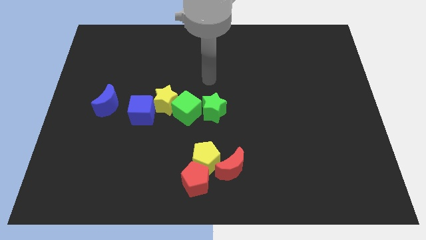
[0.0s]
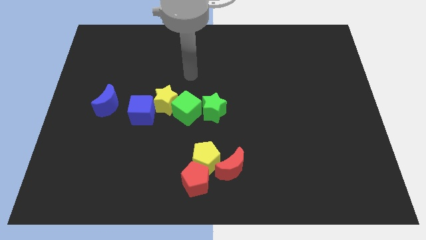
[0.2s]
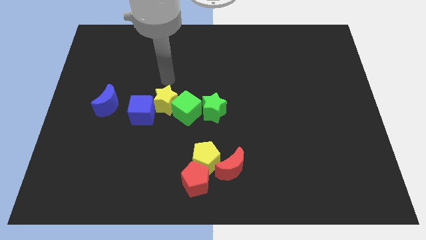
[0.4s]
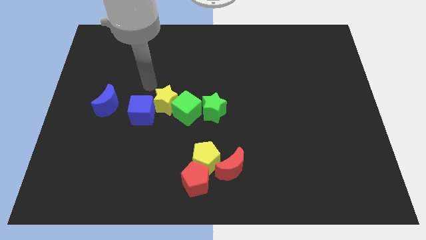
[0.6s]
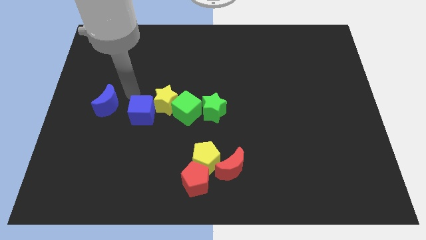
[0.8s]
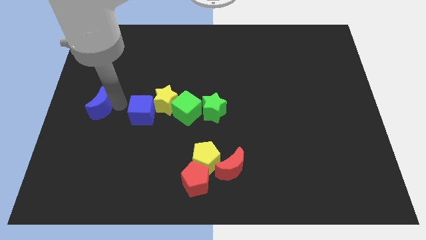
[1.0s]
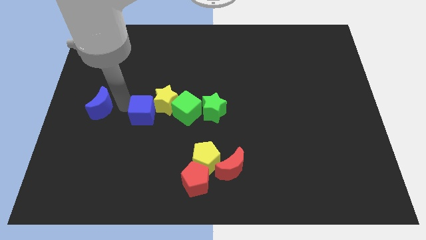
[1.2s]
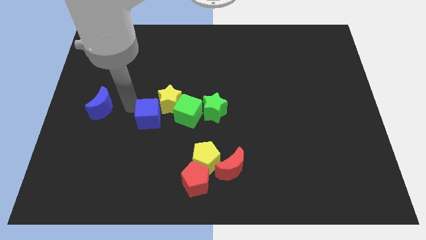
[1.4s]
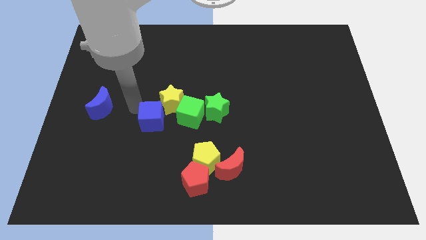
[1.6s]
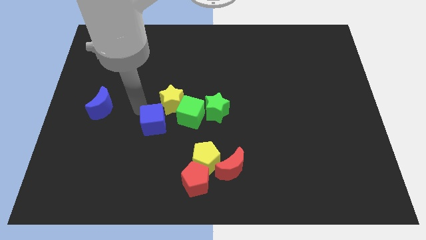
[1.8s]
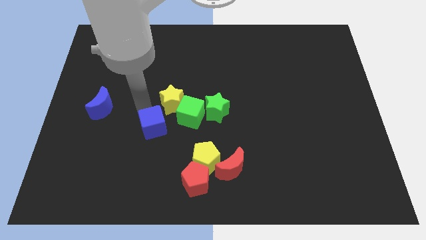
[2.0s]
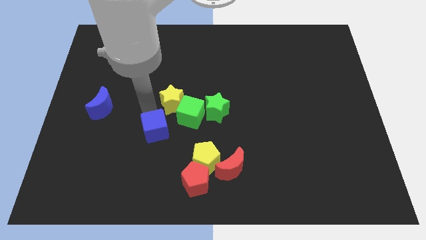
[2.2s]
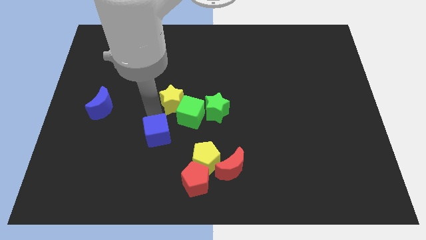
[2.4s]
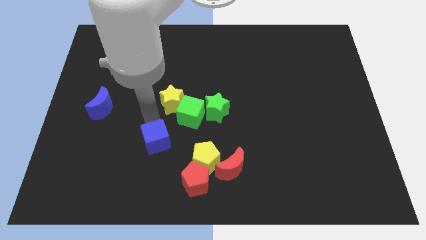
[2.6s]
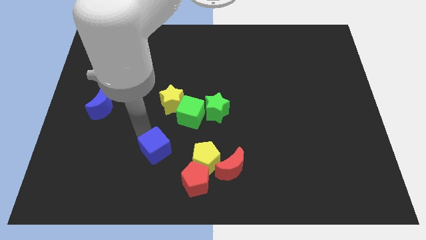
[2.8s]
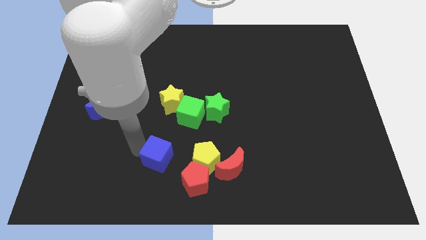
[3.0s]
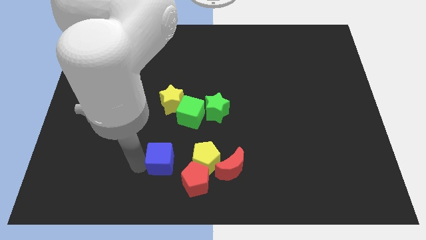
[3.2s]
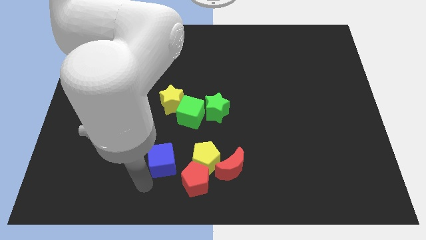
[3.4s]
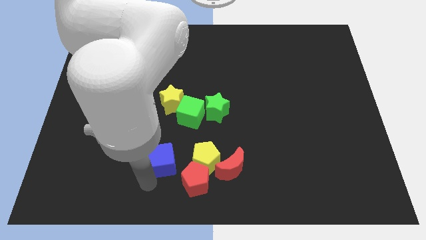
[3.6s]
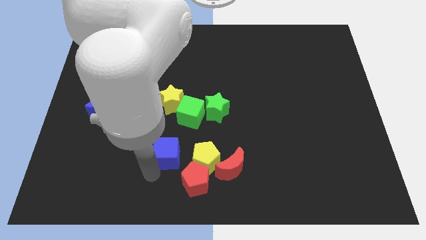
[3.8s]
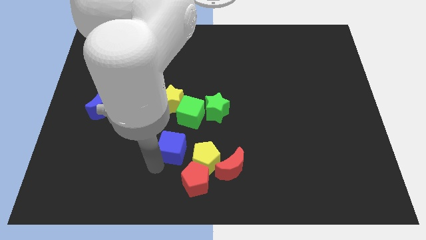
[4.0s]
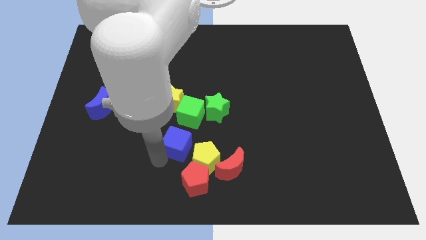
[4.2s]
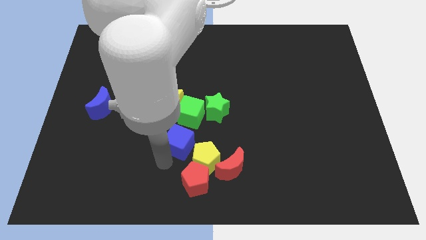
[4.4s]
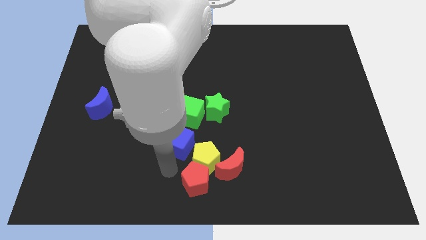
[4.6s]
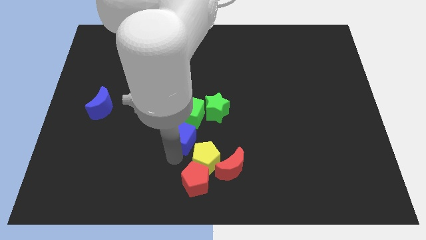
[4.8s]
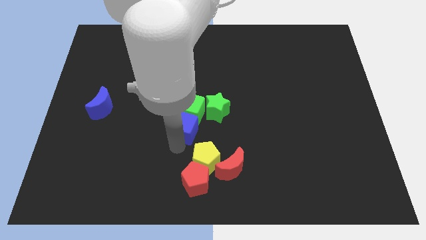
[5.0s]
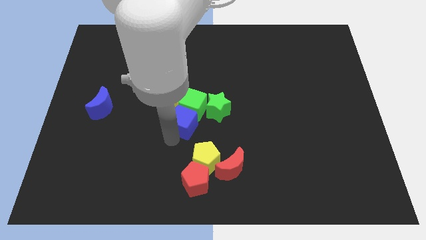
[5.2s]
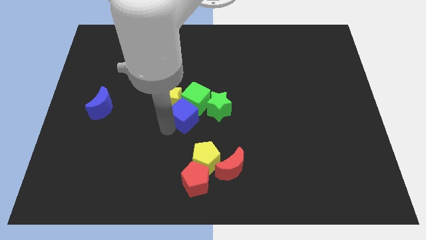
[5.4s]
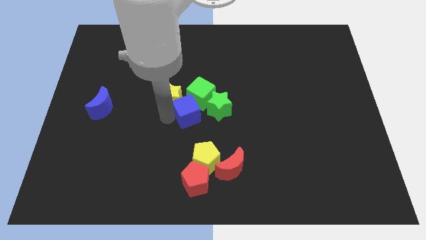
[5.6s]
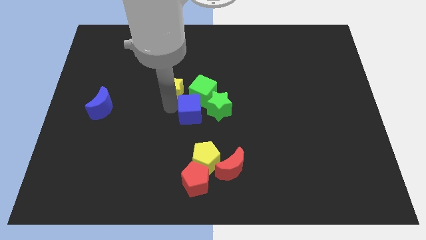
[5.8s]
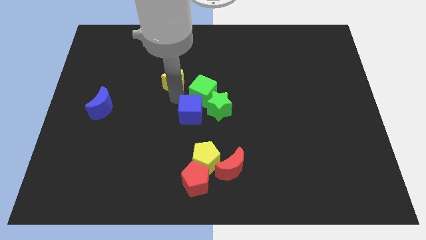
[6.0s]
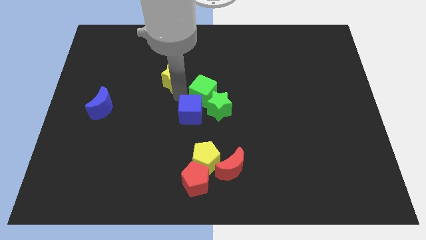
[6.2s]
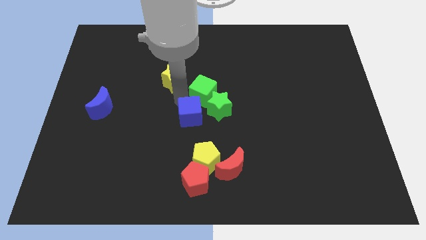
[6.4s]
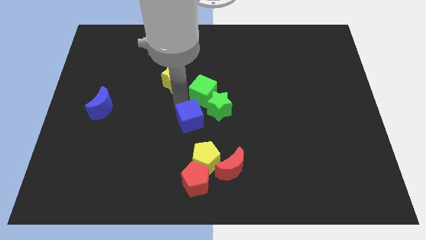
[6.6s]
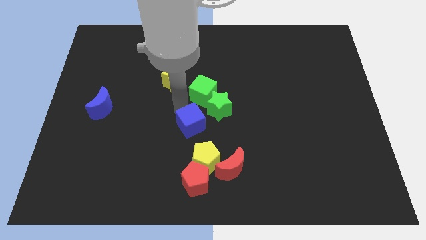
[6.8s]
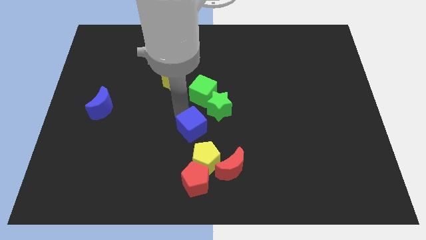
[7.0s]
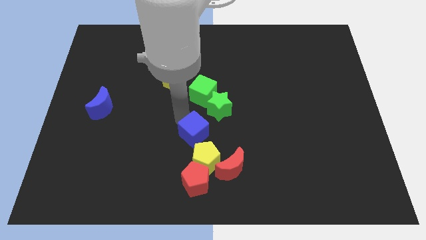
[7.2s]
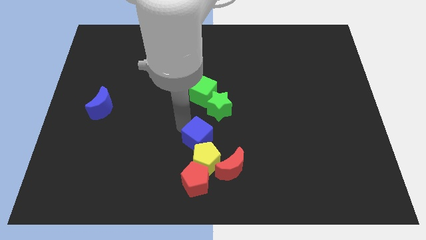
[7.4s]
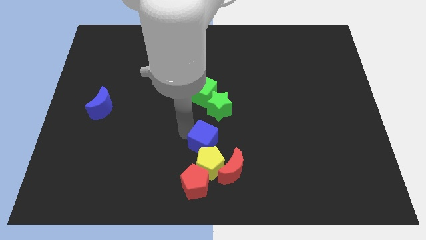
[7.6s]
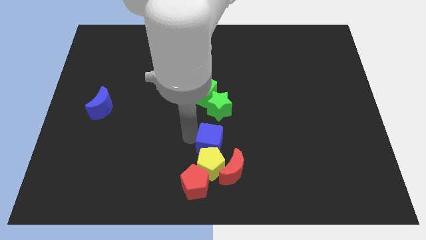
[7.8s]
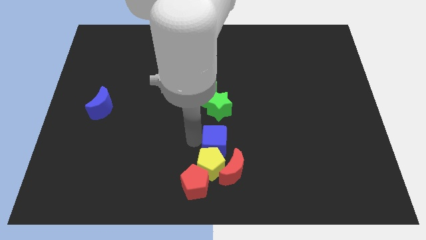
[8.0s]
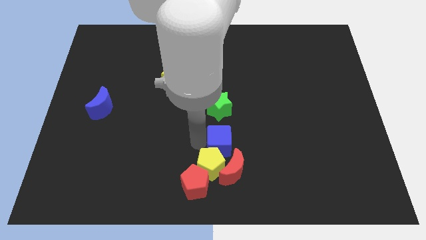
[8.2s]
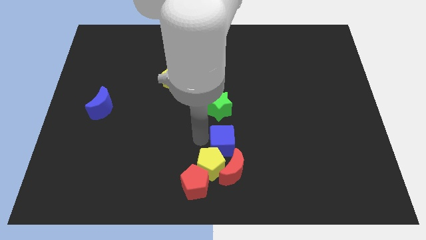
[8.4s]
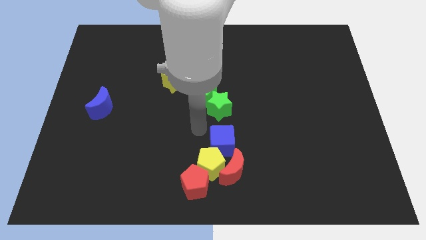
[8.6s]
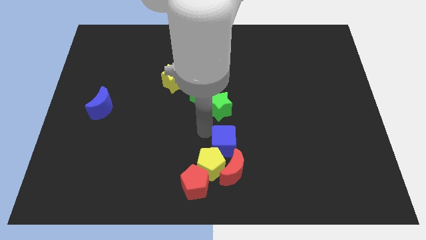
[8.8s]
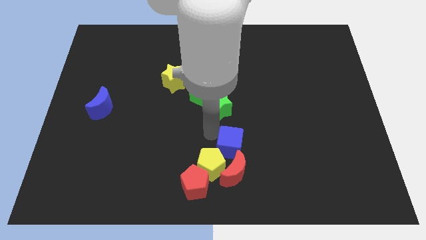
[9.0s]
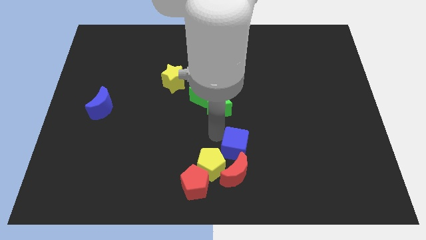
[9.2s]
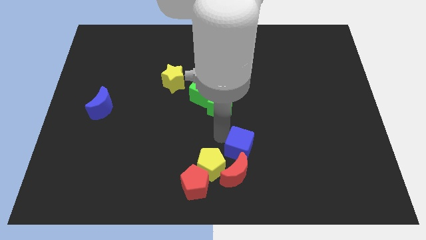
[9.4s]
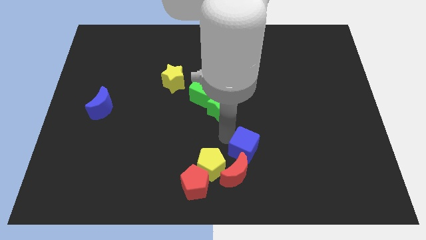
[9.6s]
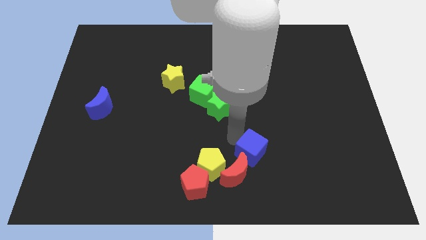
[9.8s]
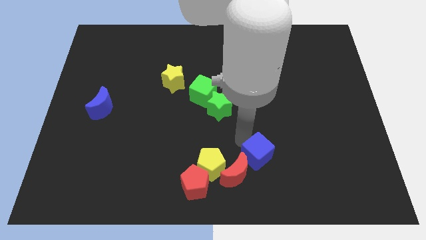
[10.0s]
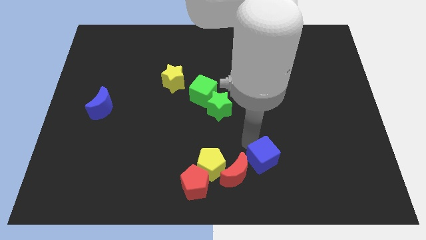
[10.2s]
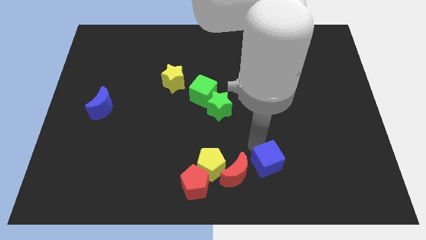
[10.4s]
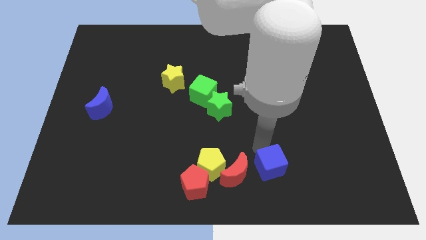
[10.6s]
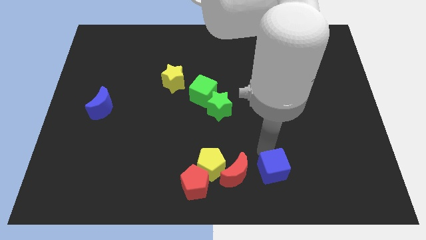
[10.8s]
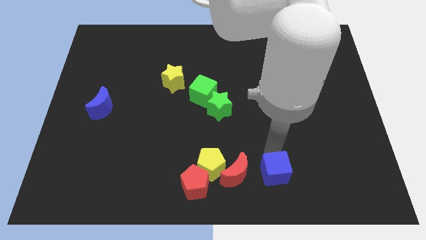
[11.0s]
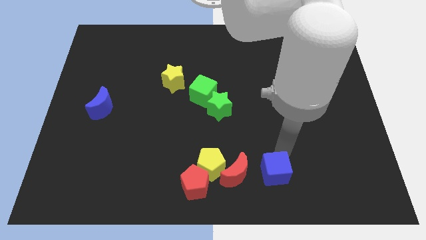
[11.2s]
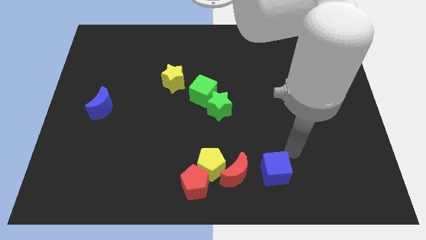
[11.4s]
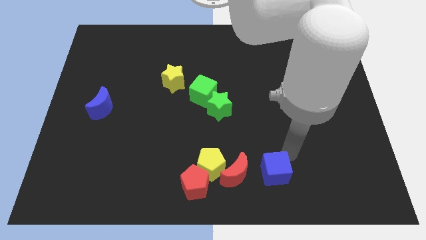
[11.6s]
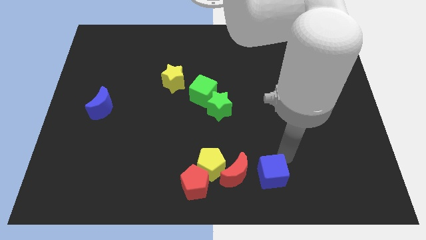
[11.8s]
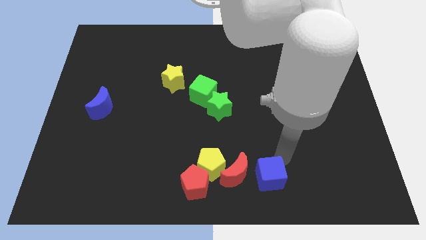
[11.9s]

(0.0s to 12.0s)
push the blue cube to the bottom side

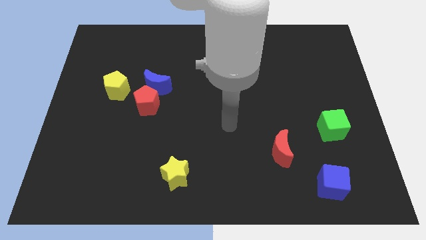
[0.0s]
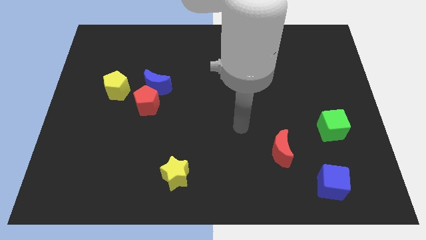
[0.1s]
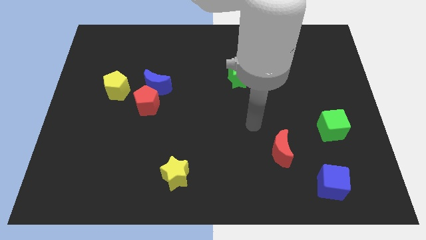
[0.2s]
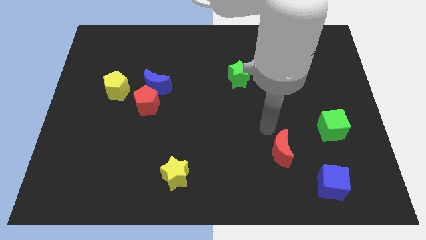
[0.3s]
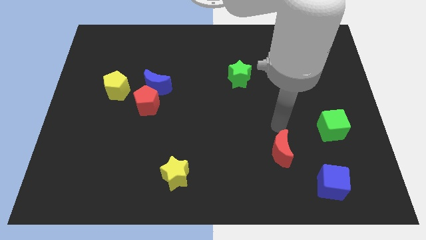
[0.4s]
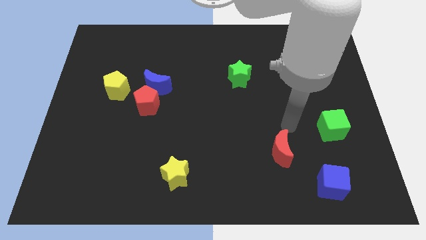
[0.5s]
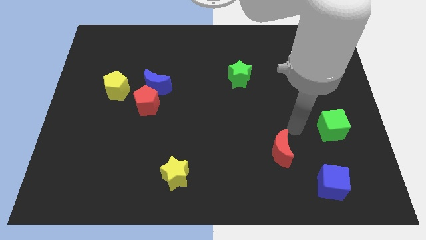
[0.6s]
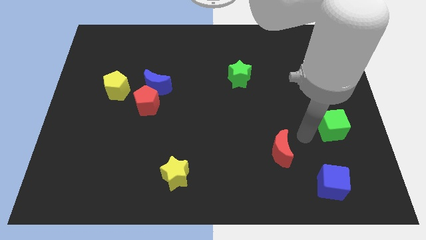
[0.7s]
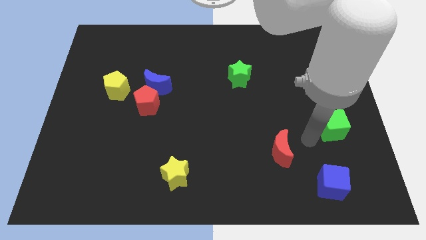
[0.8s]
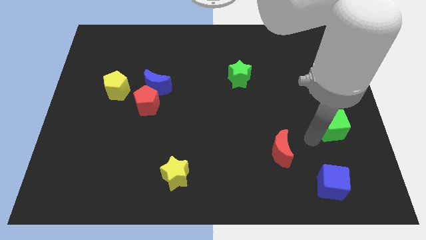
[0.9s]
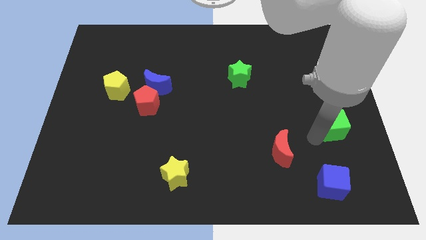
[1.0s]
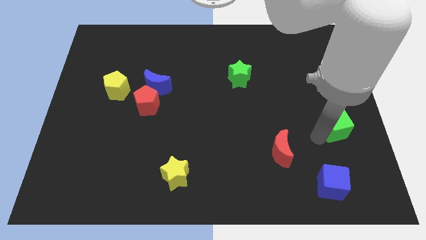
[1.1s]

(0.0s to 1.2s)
move the green cube to the right side of the board
